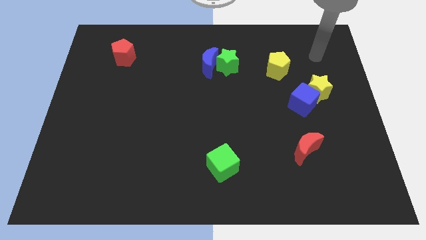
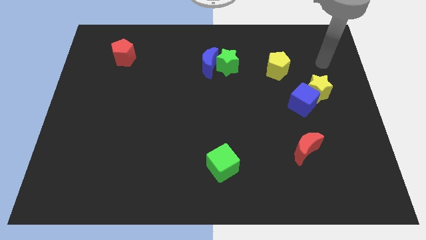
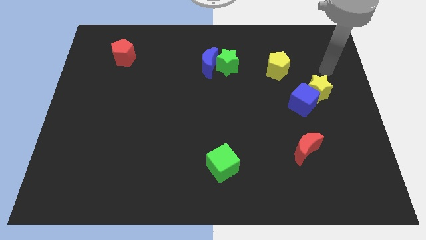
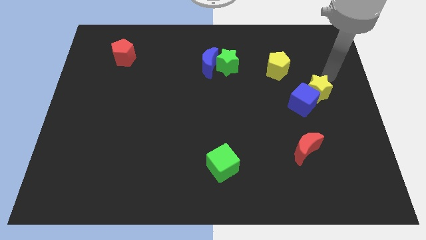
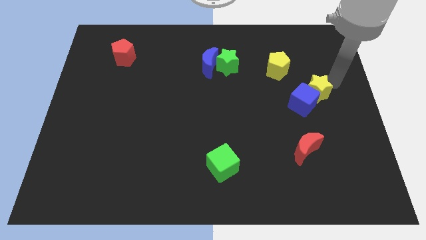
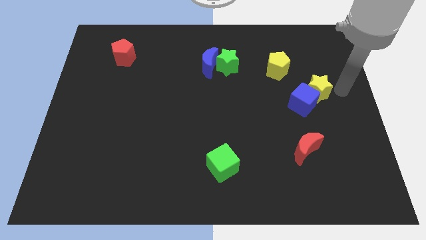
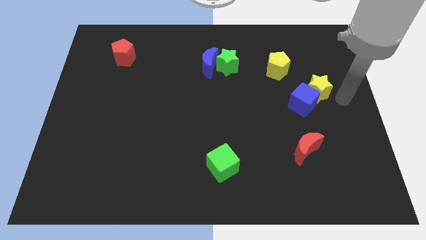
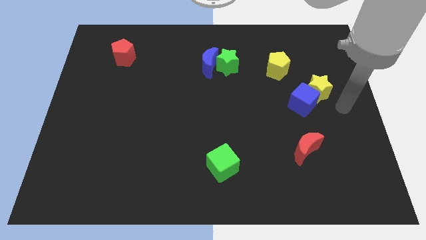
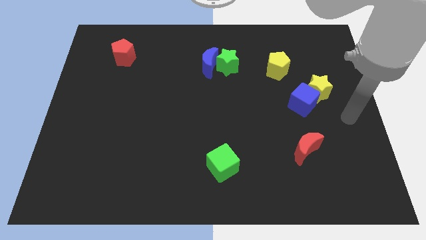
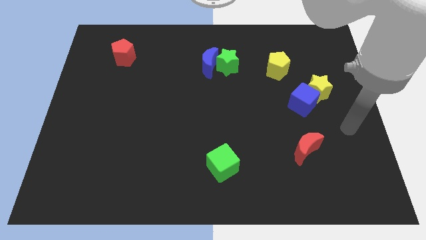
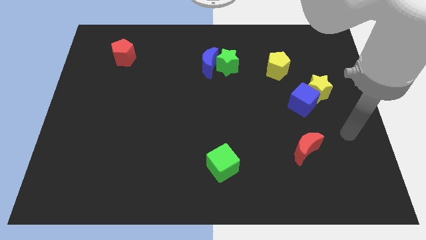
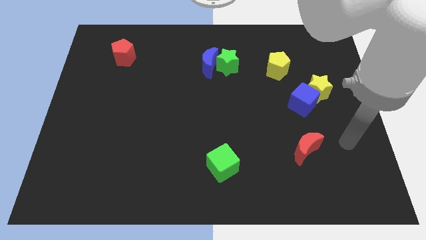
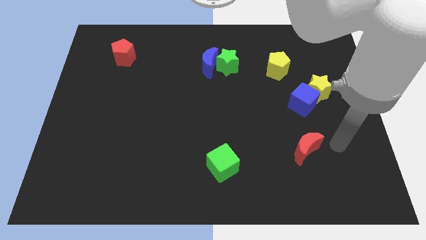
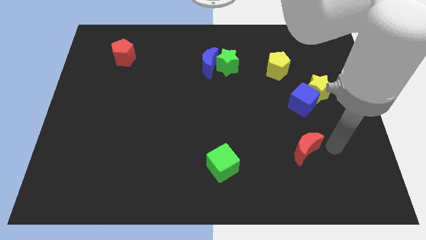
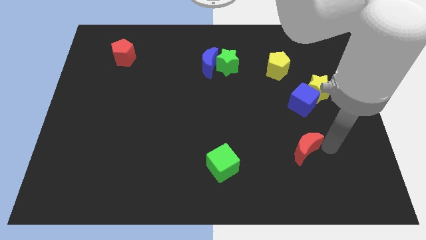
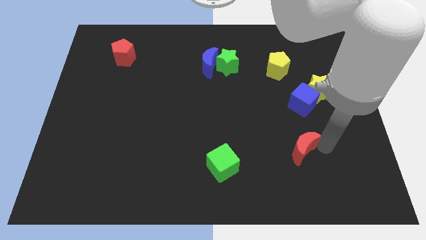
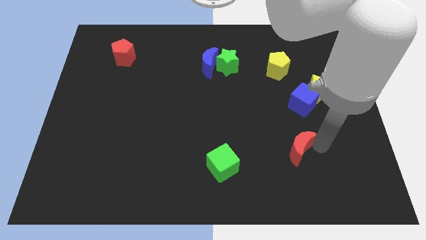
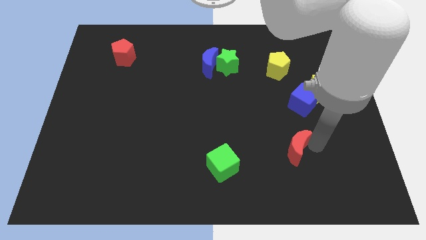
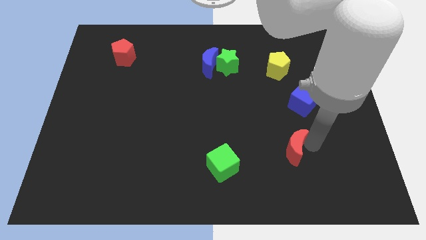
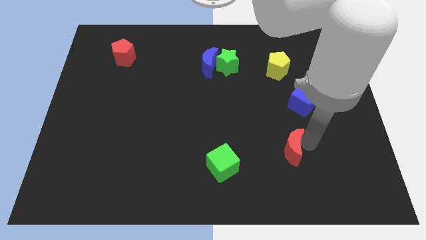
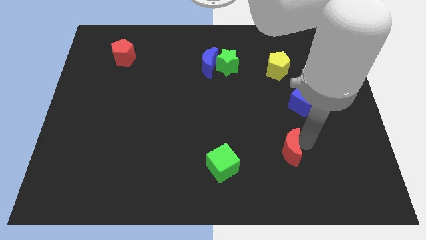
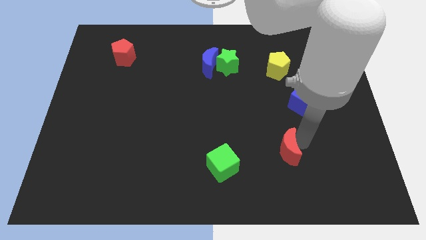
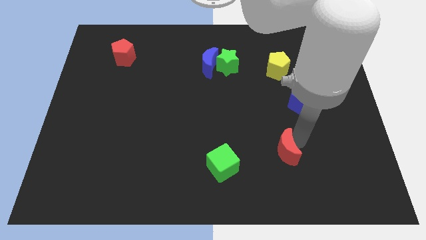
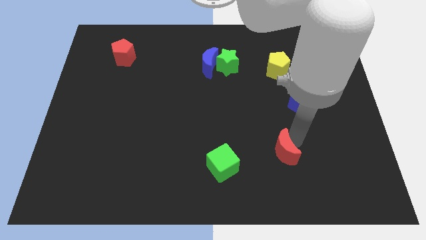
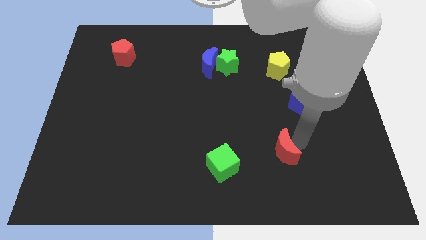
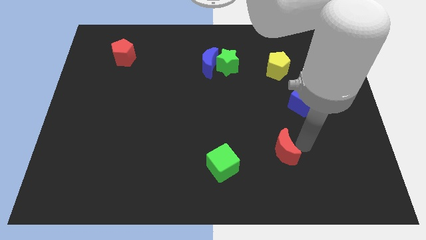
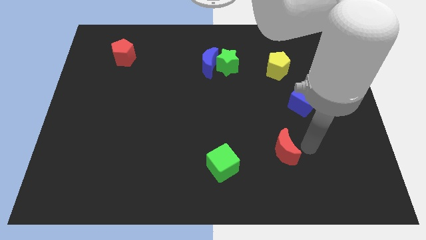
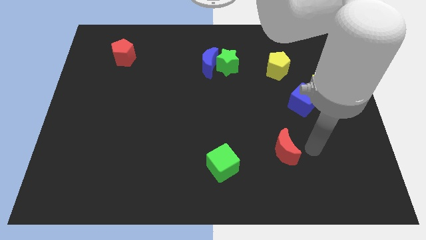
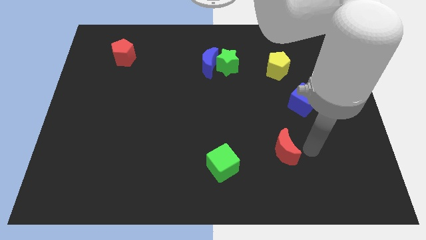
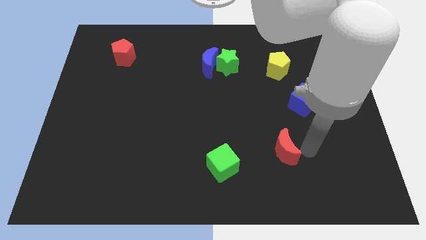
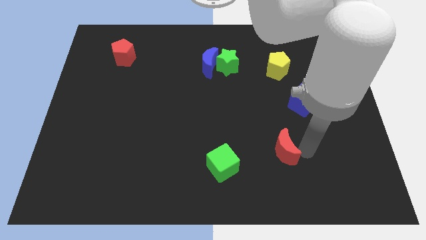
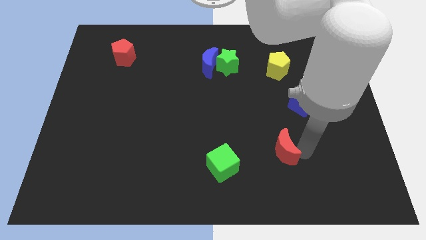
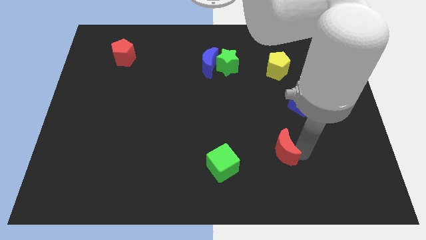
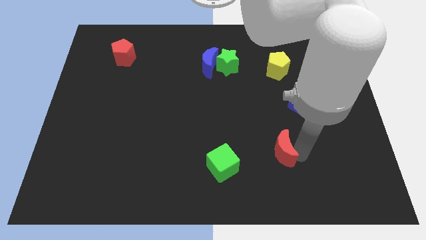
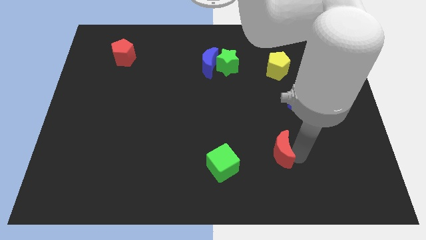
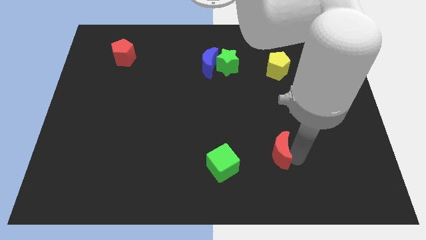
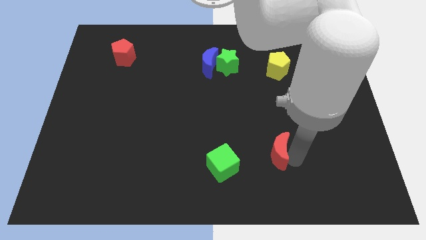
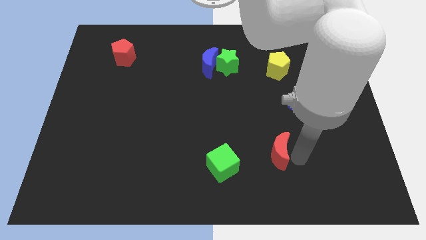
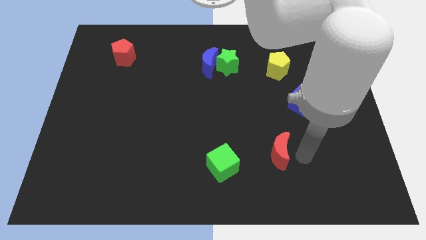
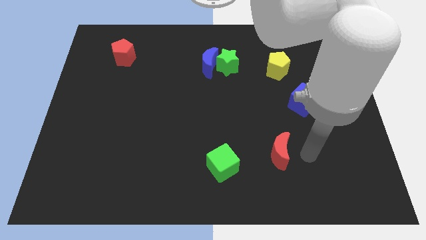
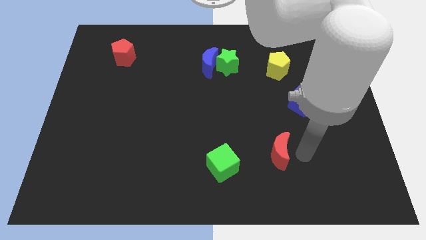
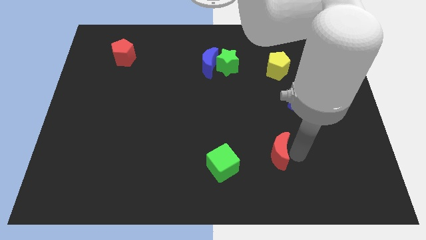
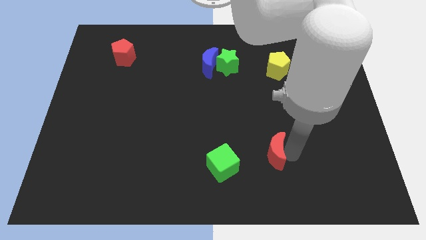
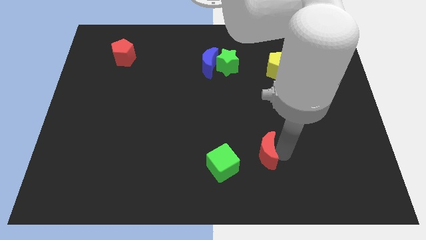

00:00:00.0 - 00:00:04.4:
slightly slide the red moon to the left

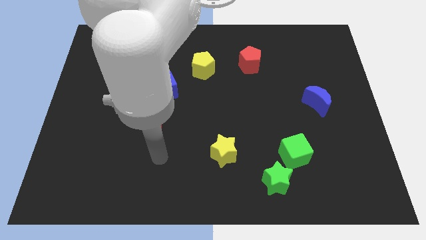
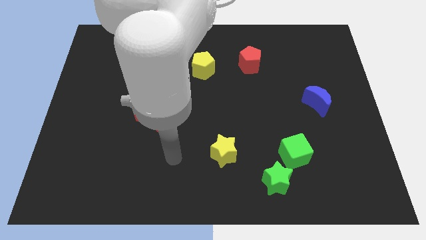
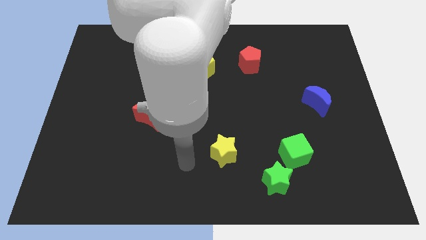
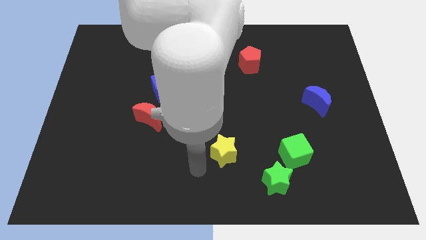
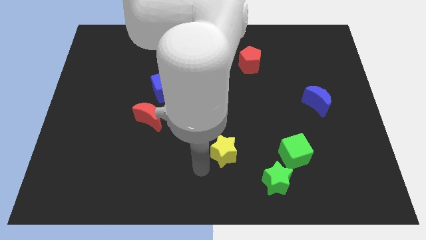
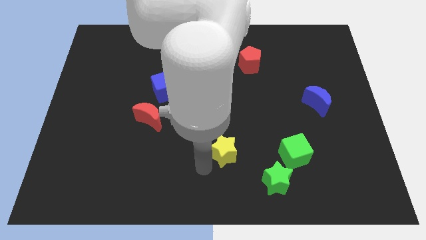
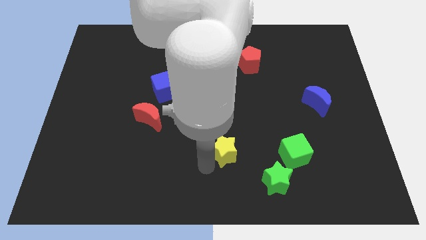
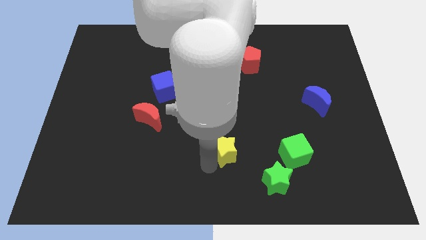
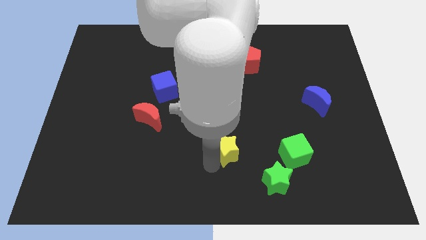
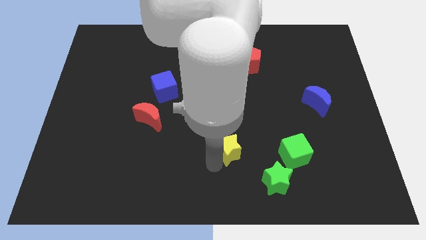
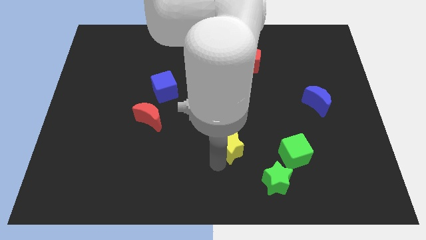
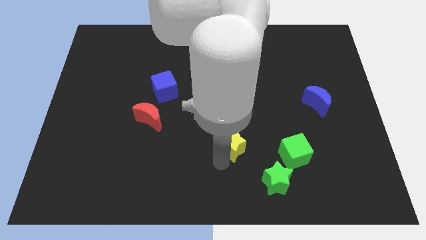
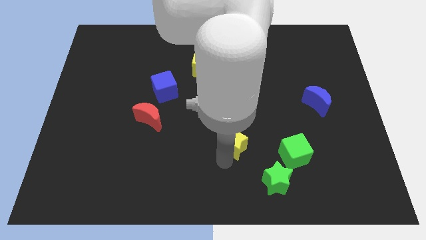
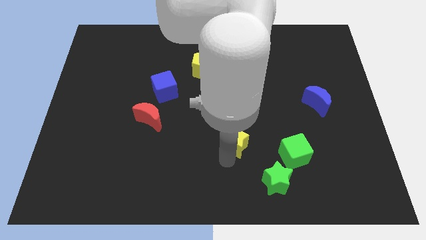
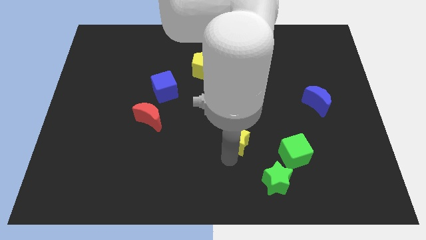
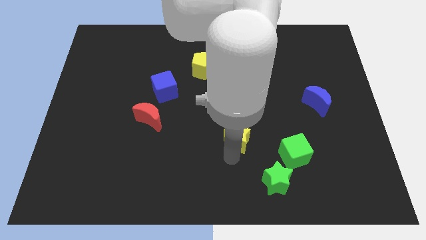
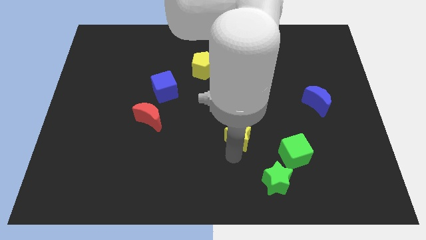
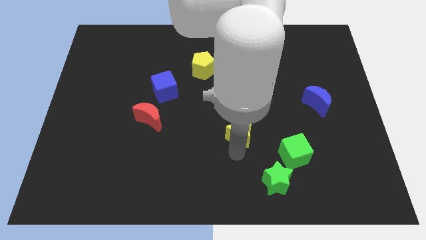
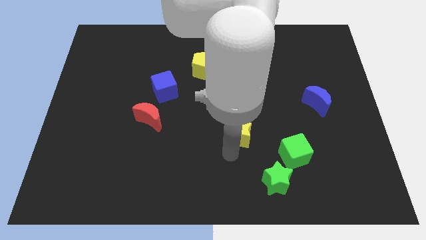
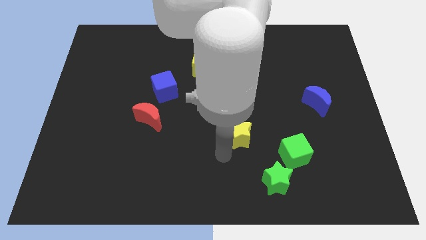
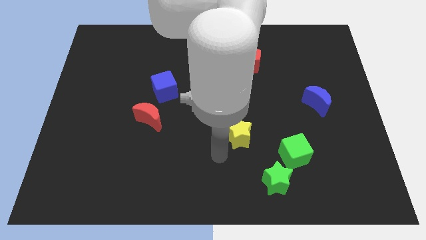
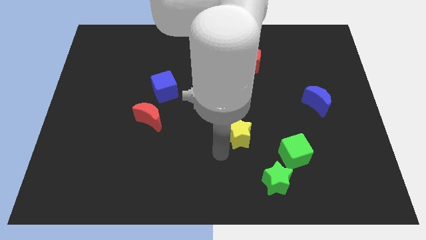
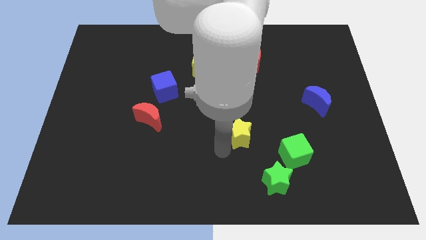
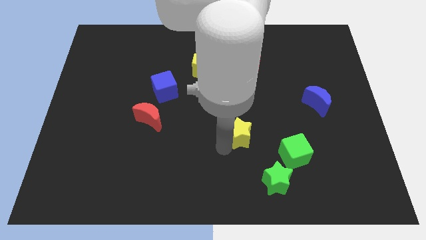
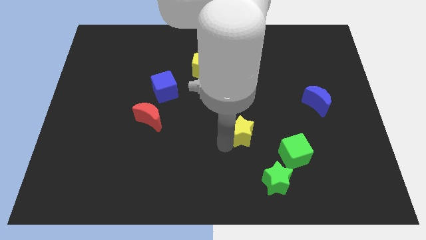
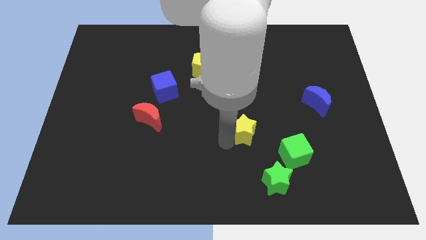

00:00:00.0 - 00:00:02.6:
slightly move the yellow star upwards and to the right

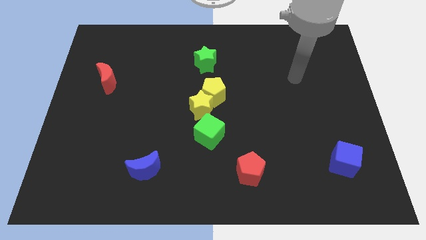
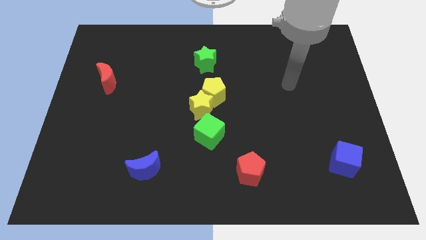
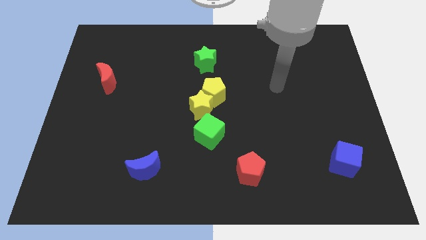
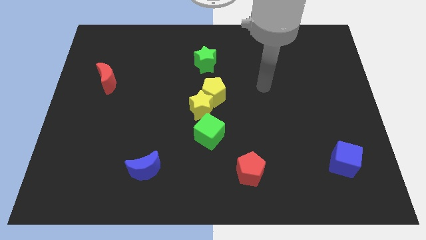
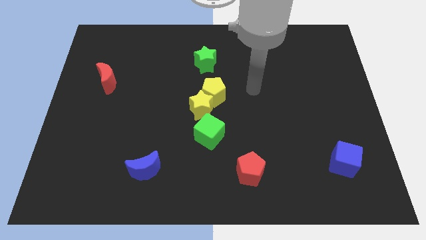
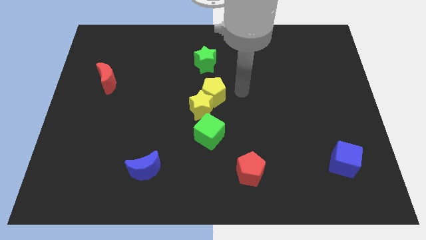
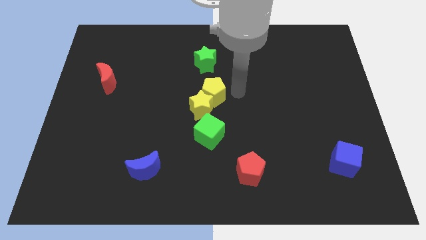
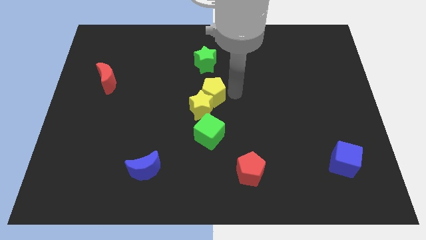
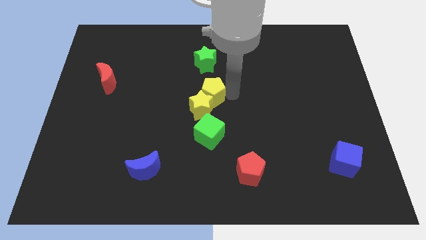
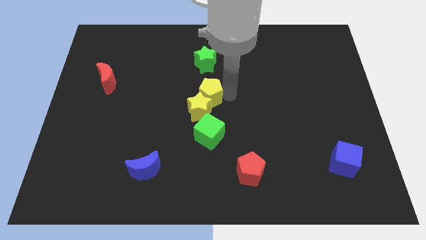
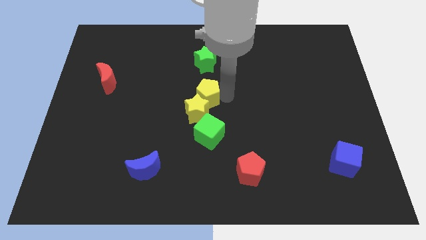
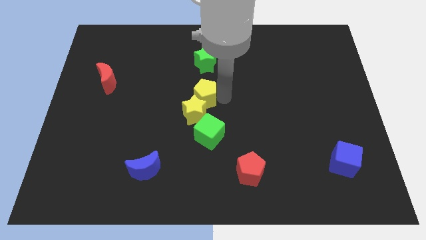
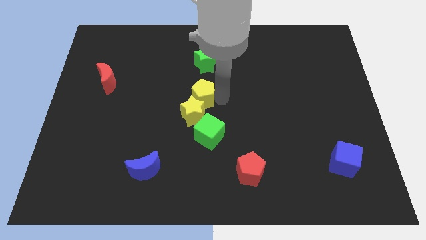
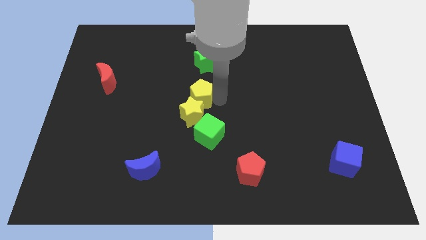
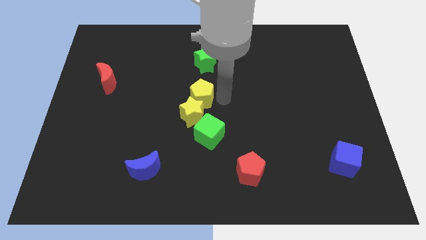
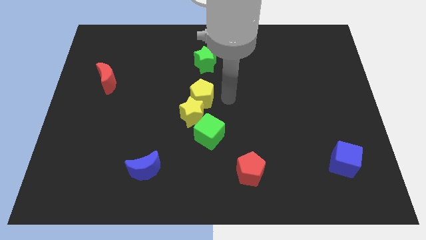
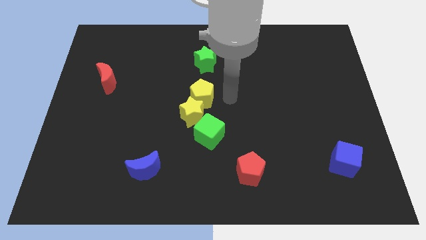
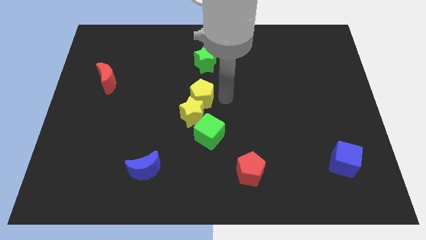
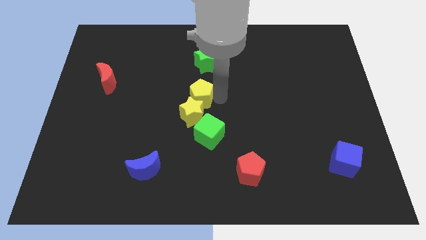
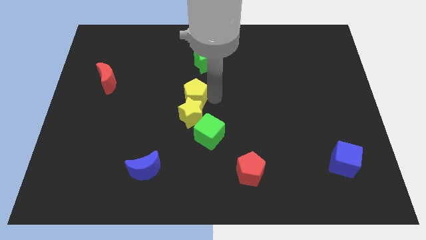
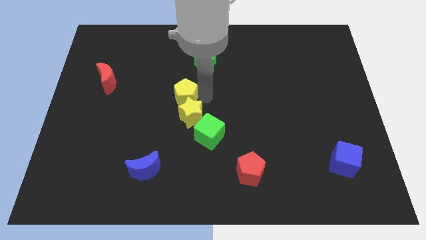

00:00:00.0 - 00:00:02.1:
slightly push the yellow pentagon left
